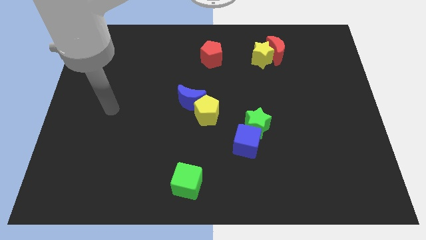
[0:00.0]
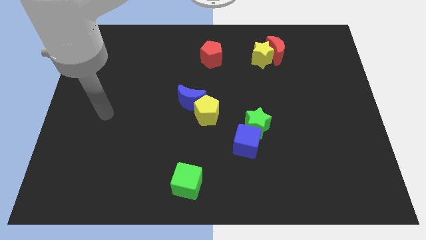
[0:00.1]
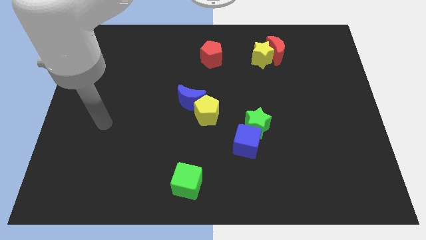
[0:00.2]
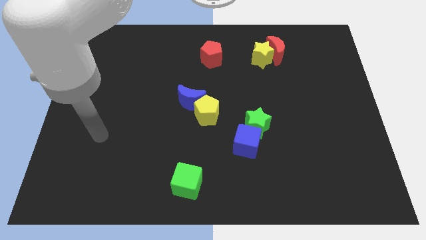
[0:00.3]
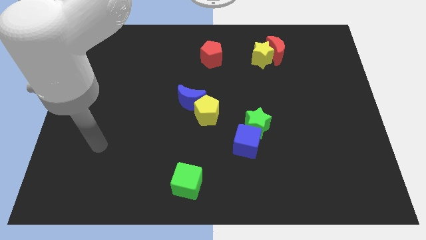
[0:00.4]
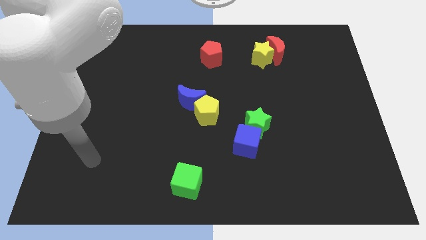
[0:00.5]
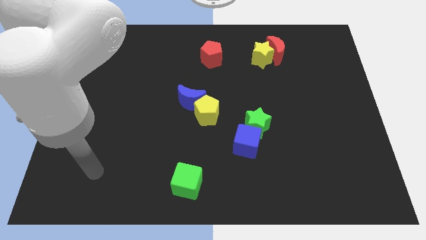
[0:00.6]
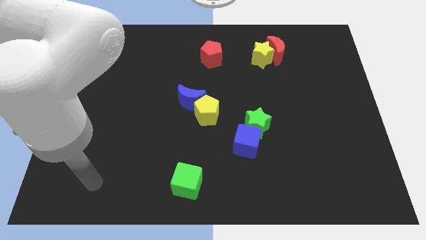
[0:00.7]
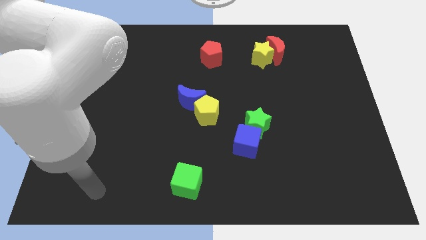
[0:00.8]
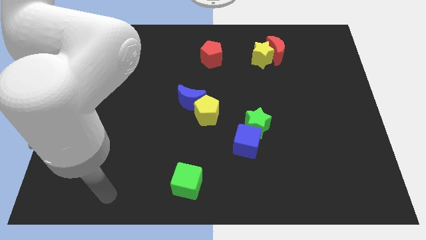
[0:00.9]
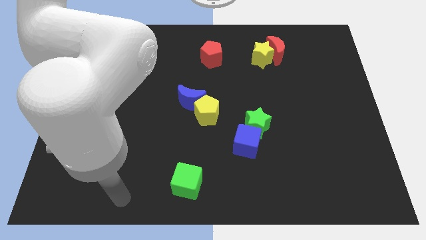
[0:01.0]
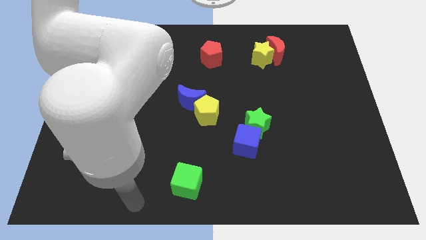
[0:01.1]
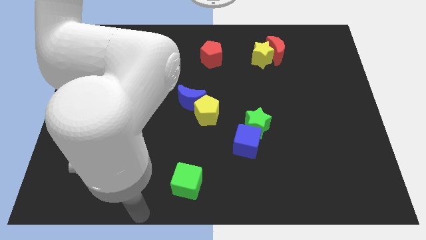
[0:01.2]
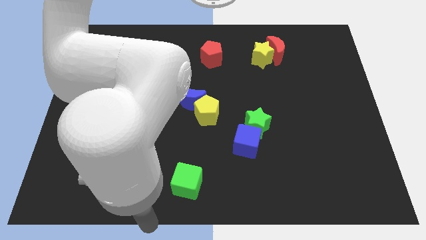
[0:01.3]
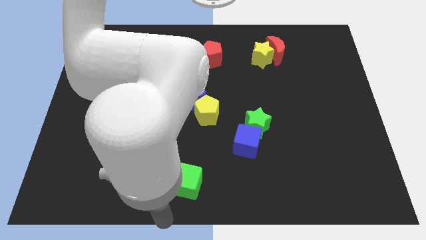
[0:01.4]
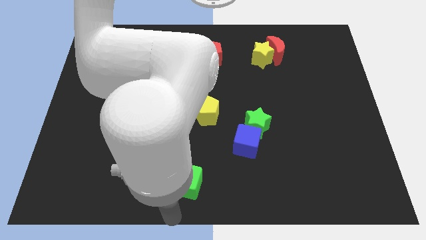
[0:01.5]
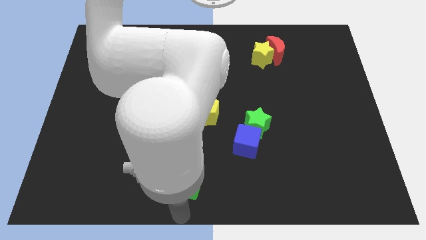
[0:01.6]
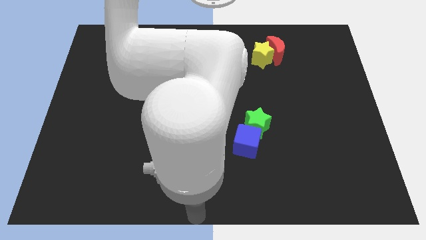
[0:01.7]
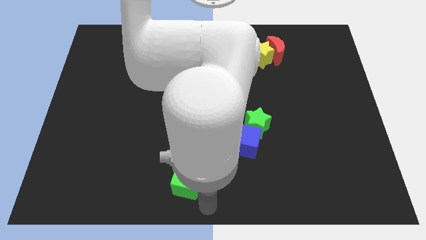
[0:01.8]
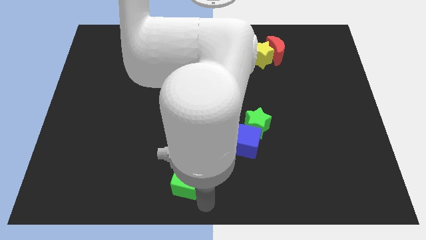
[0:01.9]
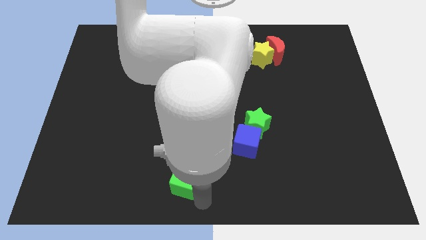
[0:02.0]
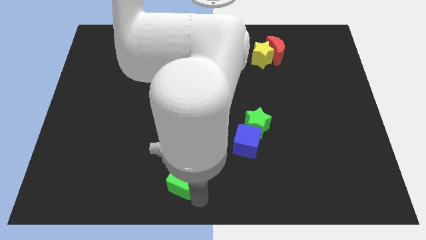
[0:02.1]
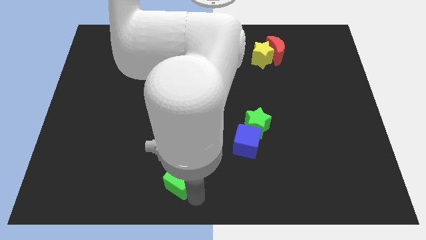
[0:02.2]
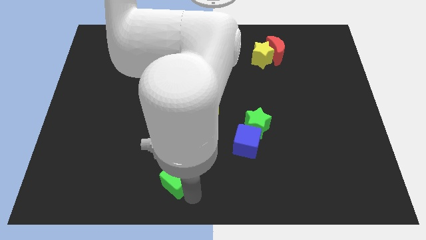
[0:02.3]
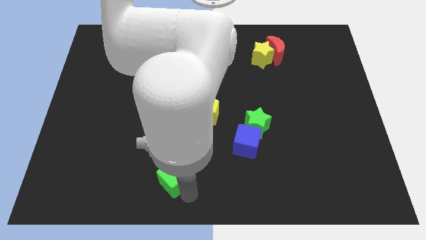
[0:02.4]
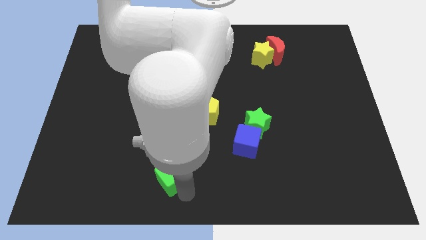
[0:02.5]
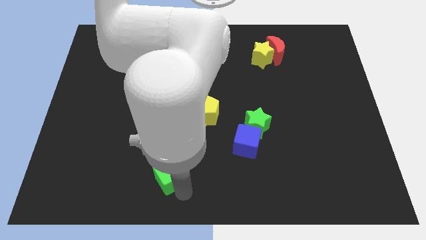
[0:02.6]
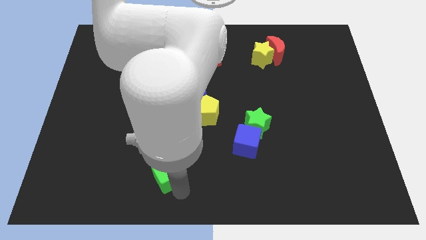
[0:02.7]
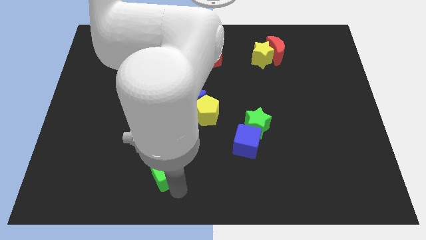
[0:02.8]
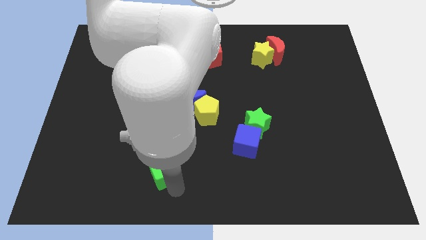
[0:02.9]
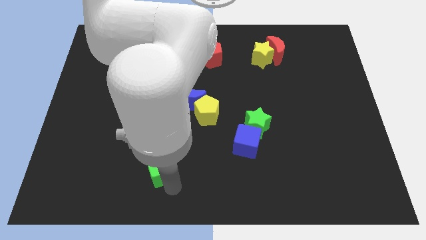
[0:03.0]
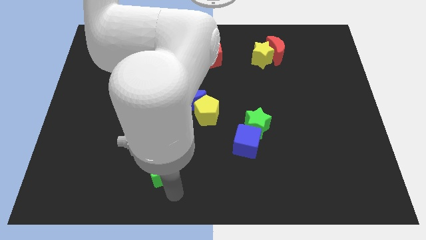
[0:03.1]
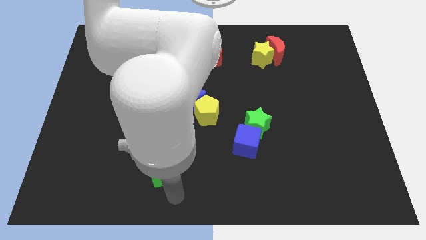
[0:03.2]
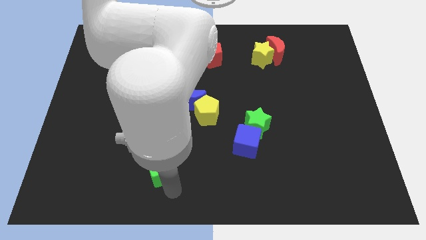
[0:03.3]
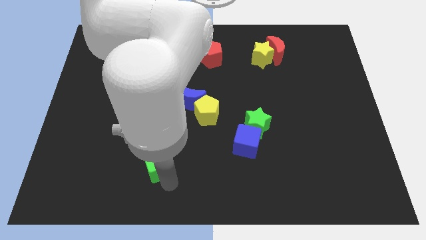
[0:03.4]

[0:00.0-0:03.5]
move the green cube slightly upwards and then to the left

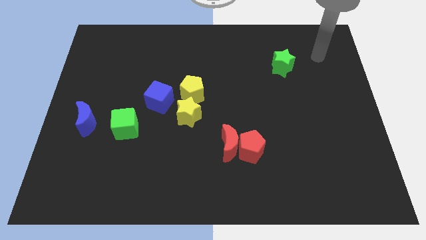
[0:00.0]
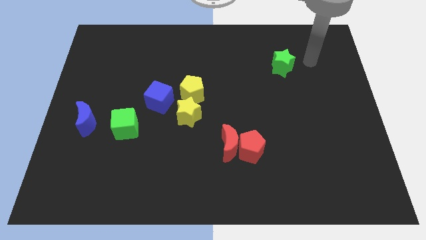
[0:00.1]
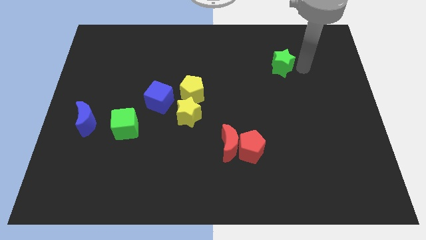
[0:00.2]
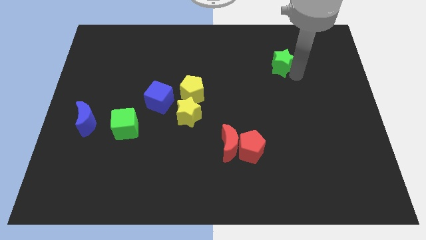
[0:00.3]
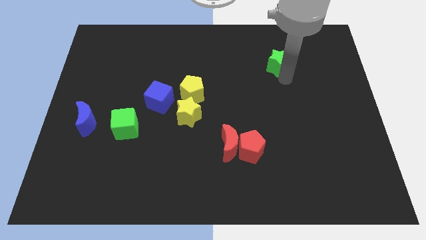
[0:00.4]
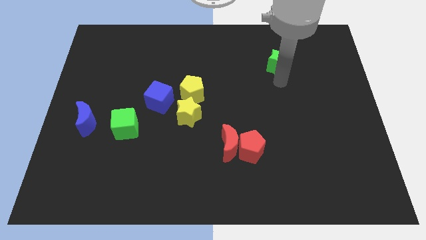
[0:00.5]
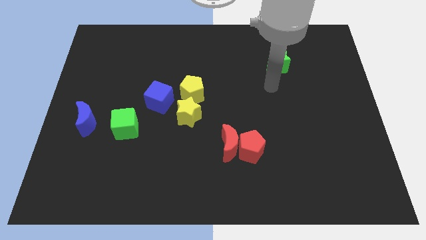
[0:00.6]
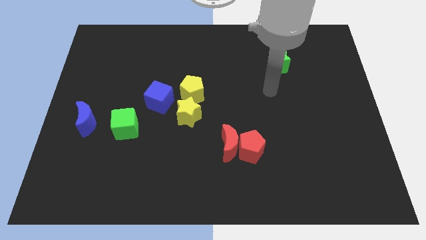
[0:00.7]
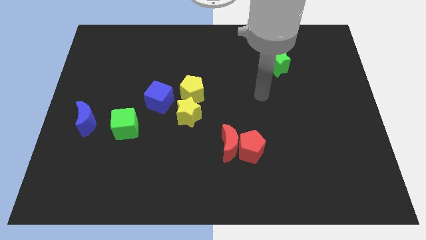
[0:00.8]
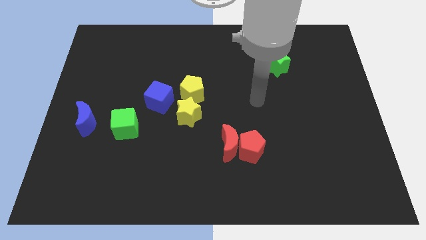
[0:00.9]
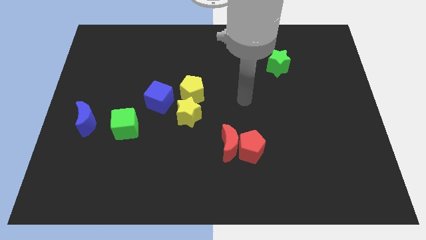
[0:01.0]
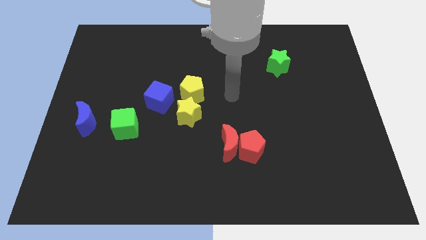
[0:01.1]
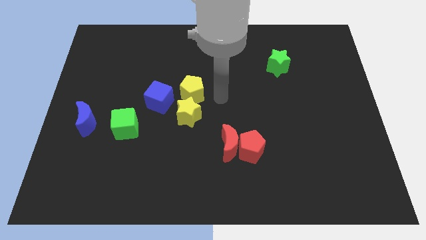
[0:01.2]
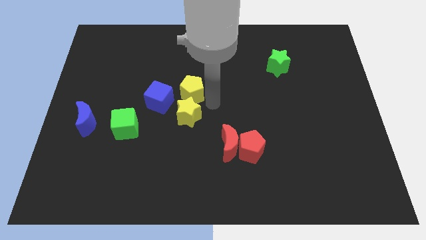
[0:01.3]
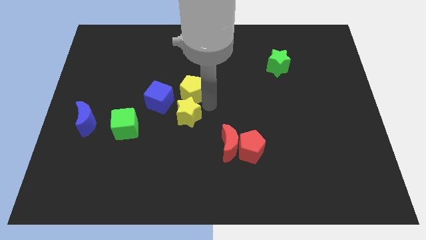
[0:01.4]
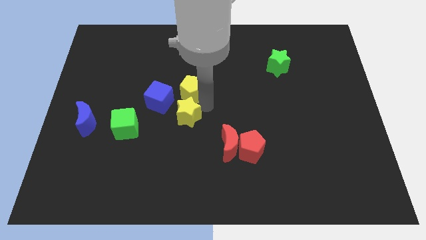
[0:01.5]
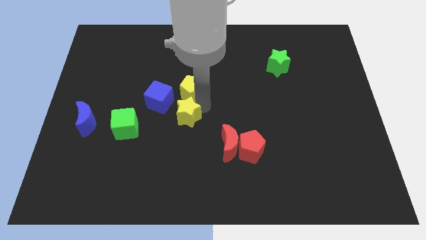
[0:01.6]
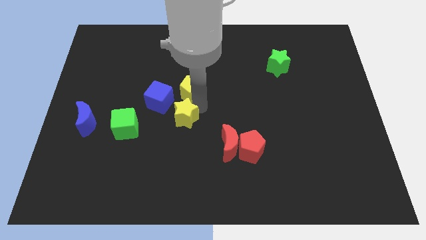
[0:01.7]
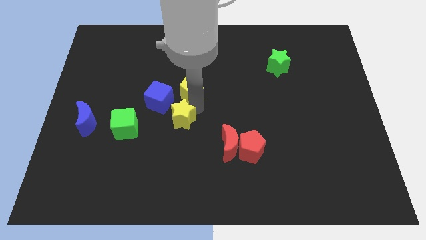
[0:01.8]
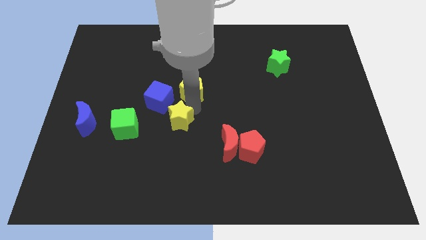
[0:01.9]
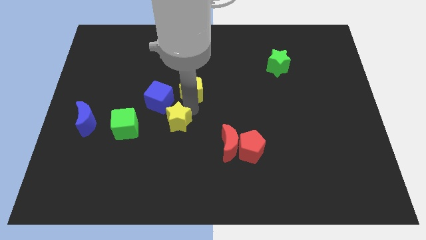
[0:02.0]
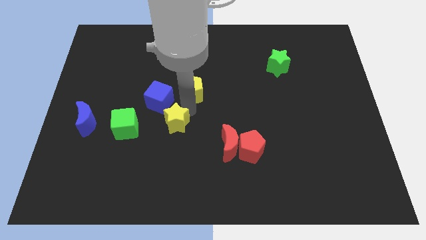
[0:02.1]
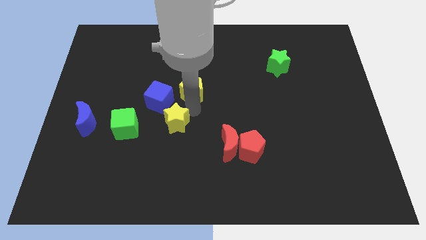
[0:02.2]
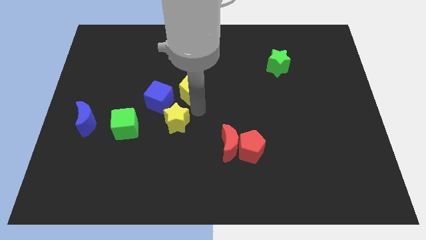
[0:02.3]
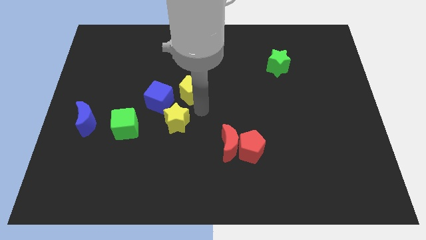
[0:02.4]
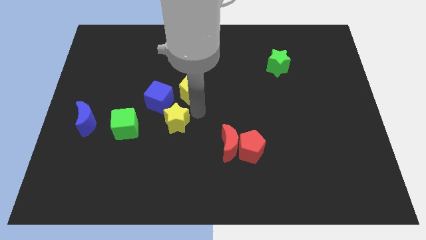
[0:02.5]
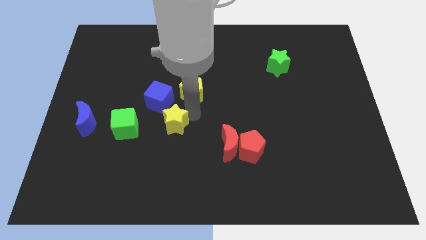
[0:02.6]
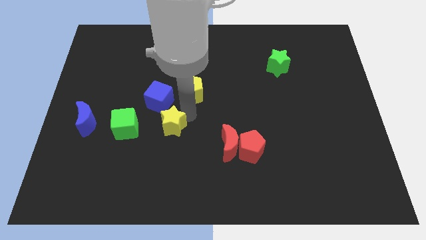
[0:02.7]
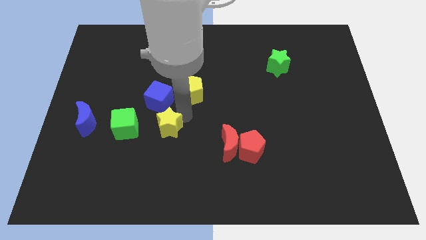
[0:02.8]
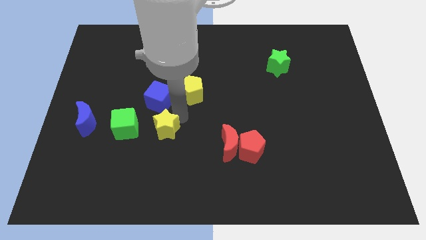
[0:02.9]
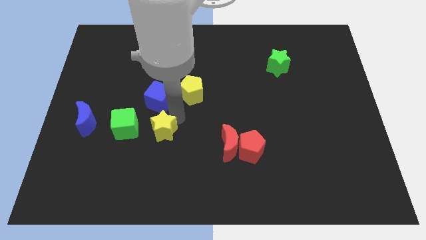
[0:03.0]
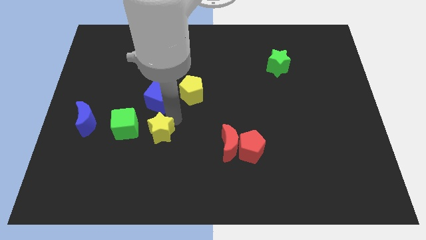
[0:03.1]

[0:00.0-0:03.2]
slightly push the yellow star down and then left

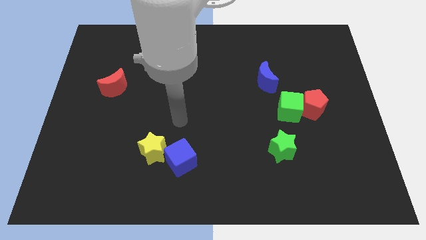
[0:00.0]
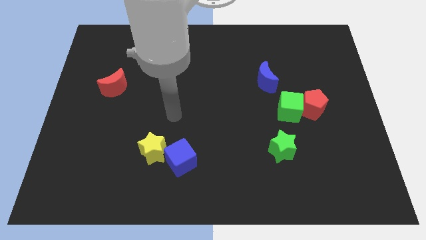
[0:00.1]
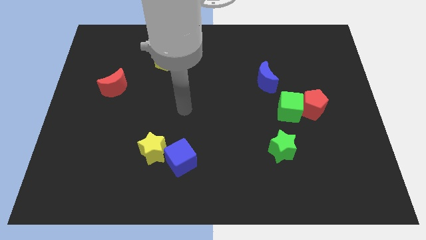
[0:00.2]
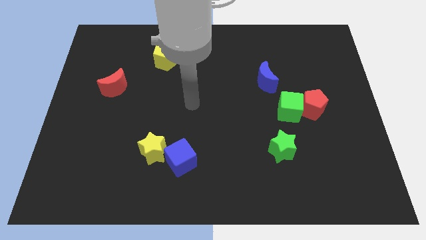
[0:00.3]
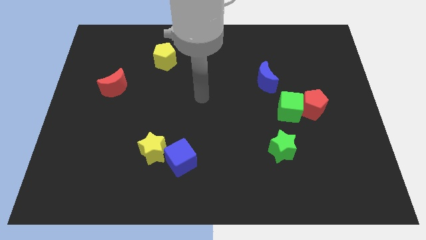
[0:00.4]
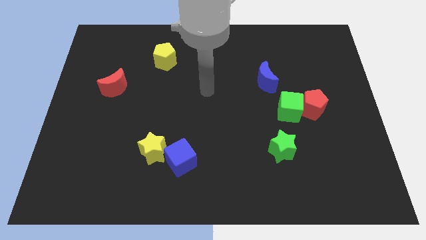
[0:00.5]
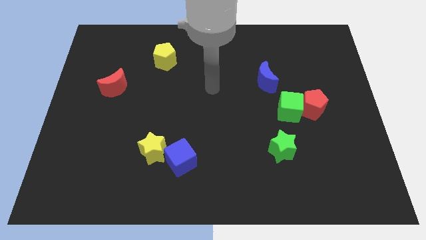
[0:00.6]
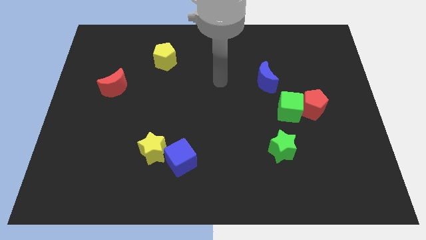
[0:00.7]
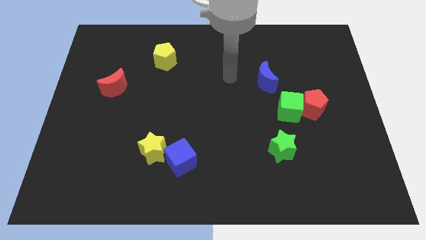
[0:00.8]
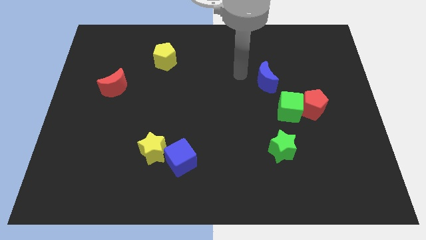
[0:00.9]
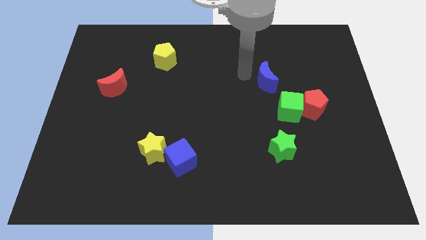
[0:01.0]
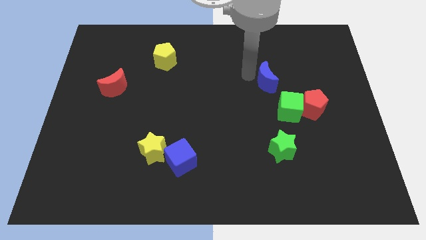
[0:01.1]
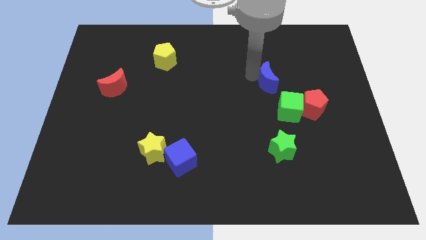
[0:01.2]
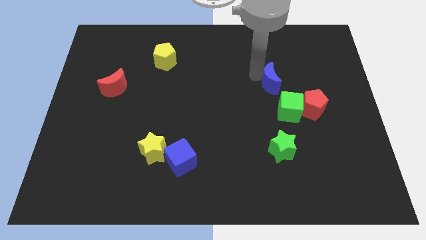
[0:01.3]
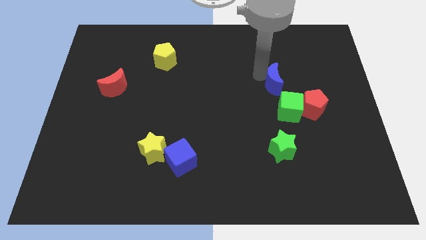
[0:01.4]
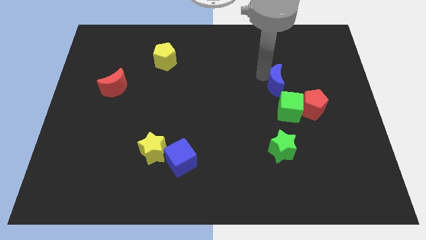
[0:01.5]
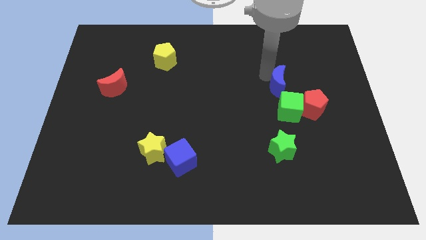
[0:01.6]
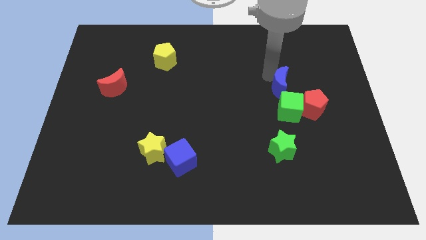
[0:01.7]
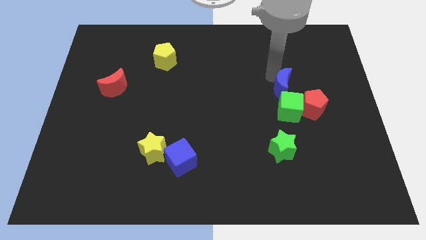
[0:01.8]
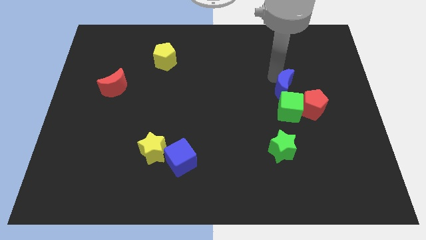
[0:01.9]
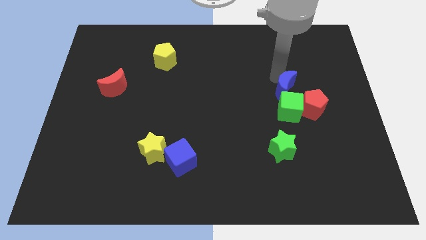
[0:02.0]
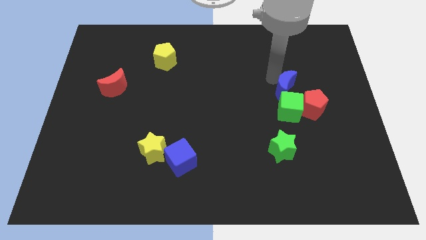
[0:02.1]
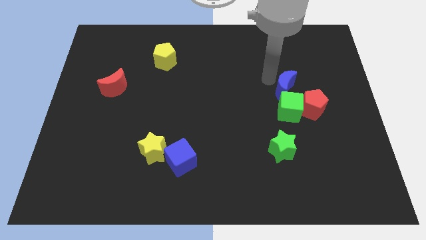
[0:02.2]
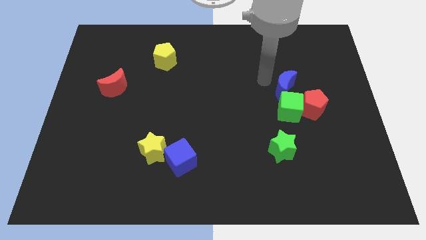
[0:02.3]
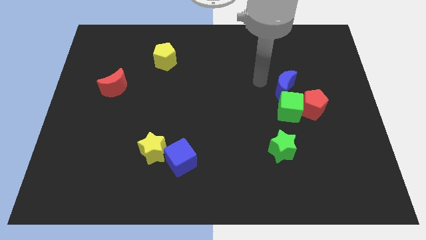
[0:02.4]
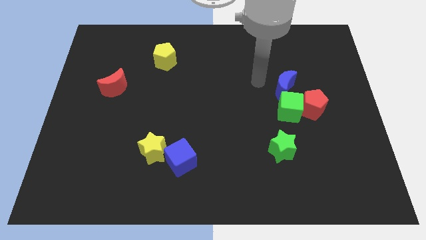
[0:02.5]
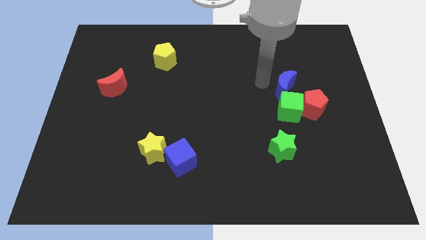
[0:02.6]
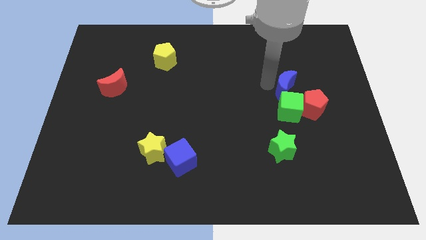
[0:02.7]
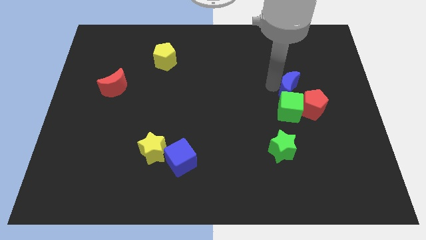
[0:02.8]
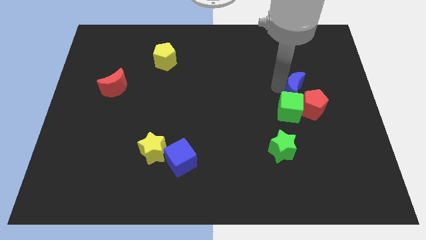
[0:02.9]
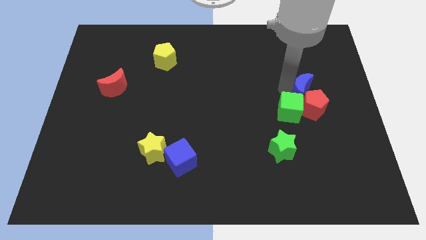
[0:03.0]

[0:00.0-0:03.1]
slightly move the blue moon down and to the right
